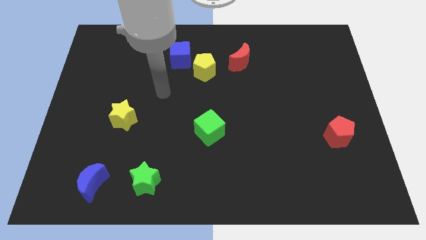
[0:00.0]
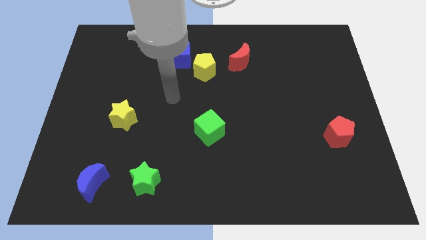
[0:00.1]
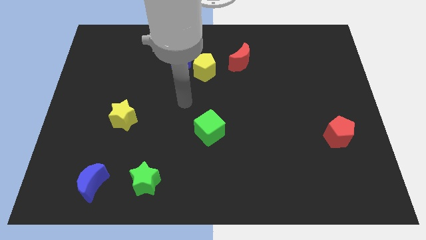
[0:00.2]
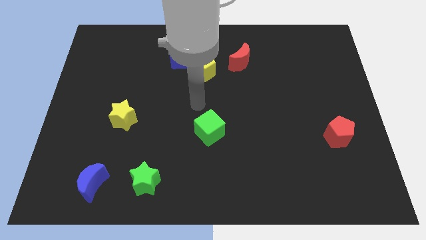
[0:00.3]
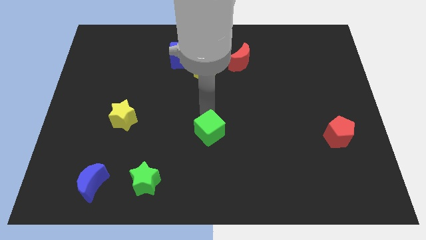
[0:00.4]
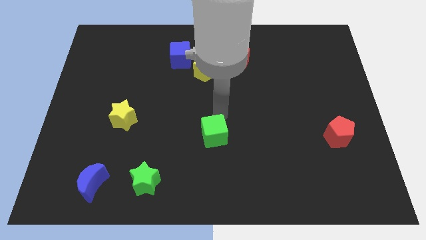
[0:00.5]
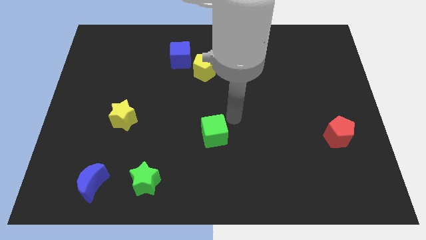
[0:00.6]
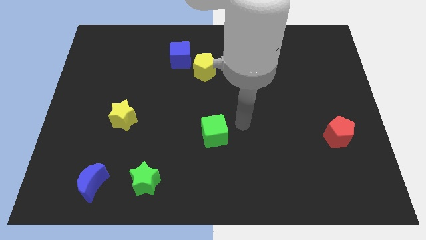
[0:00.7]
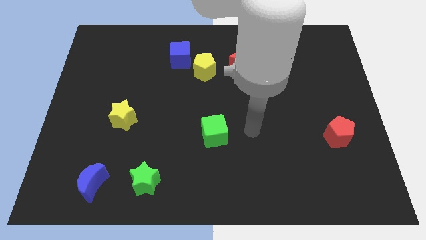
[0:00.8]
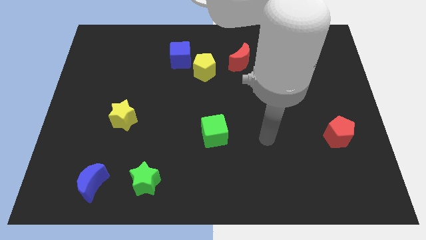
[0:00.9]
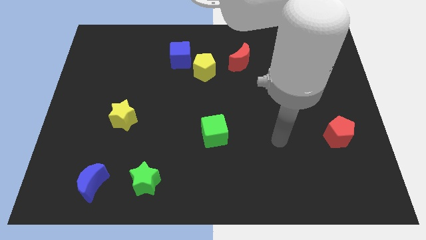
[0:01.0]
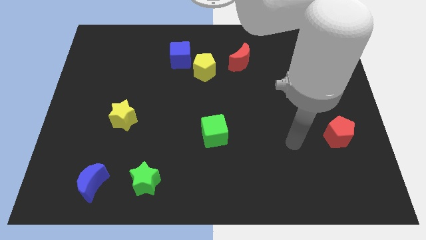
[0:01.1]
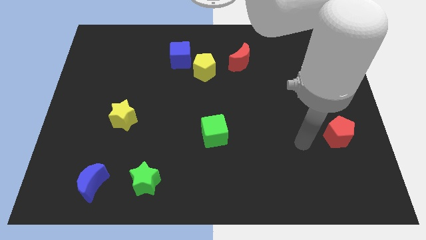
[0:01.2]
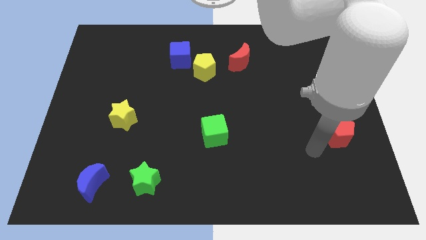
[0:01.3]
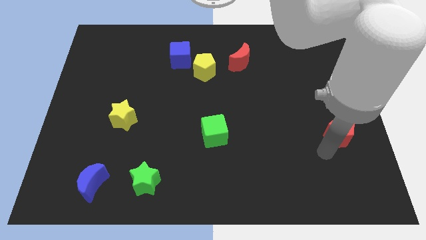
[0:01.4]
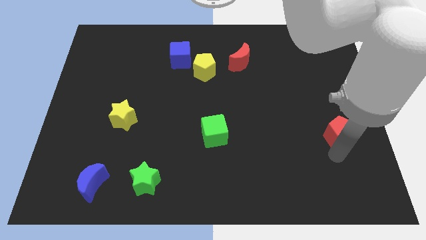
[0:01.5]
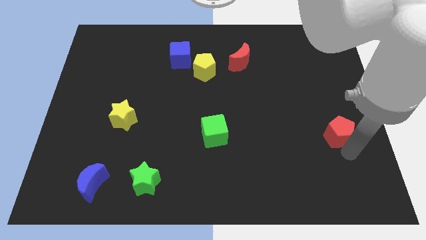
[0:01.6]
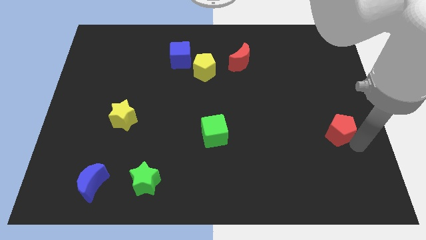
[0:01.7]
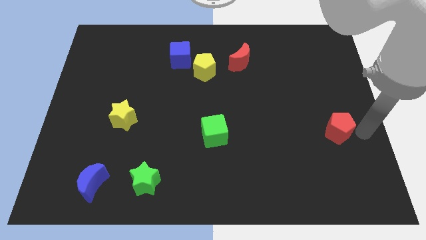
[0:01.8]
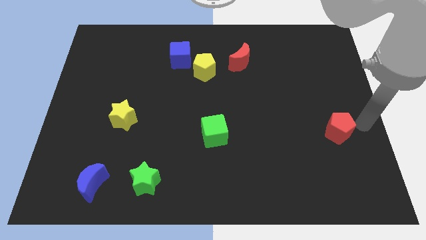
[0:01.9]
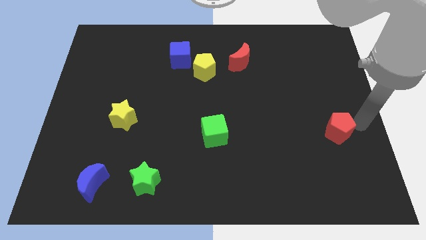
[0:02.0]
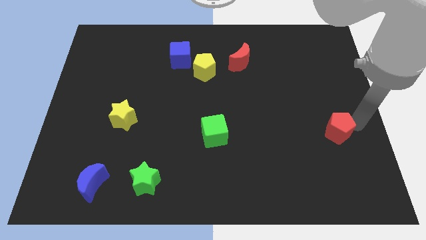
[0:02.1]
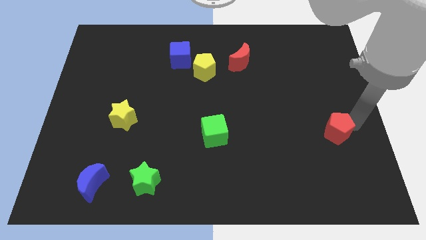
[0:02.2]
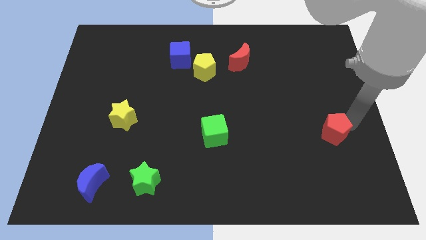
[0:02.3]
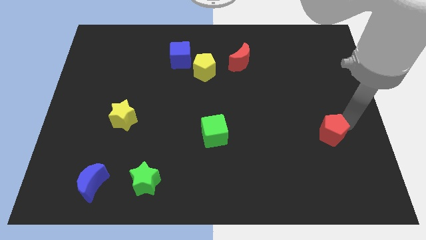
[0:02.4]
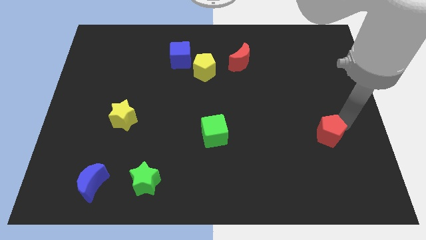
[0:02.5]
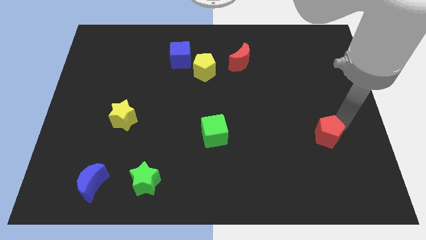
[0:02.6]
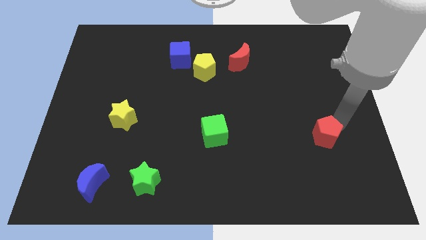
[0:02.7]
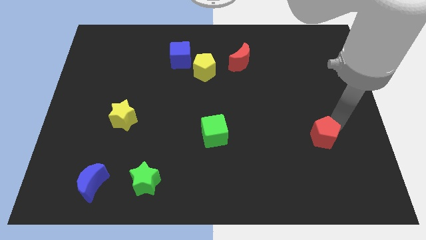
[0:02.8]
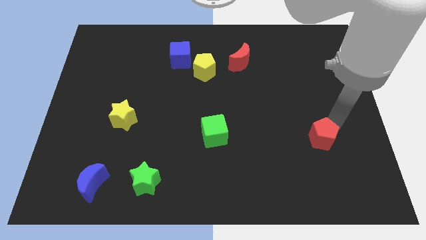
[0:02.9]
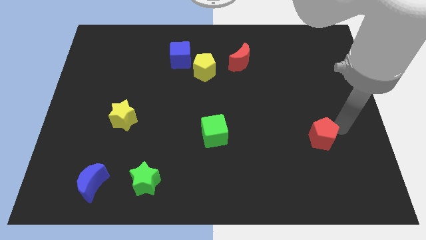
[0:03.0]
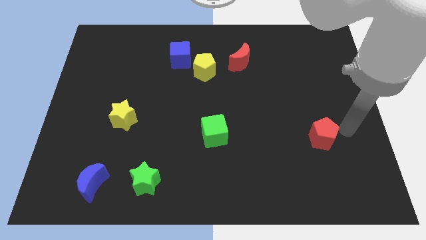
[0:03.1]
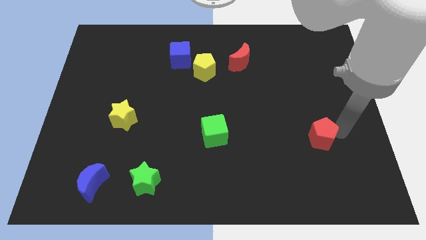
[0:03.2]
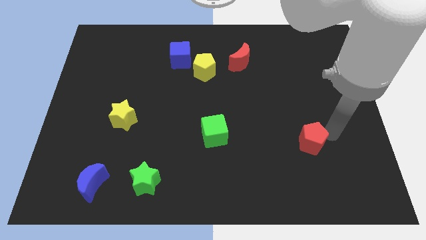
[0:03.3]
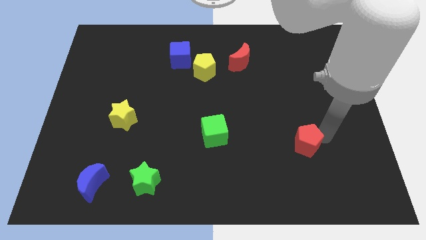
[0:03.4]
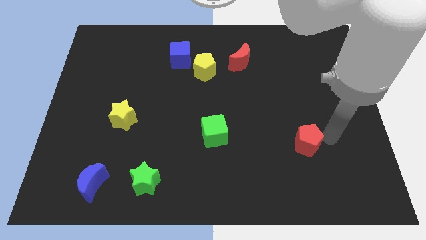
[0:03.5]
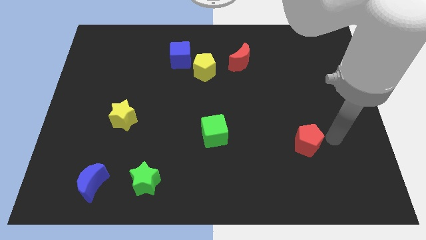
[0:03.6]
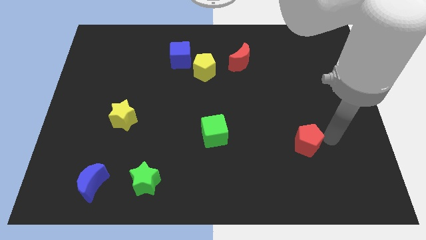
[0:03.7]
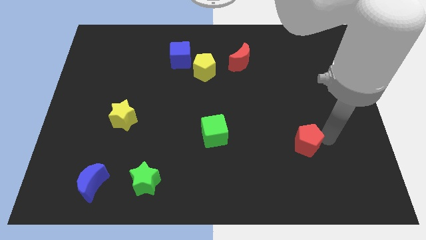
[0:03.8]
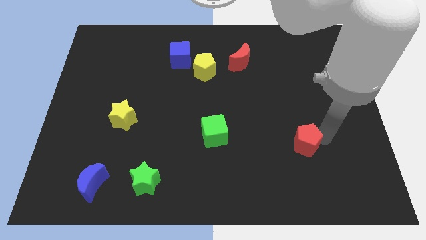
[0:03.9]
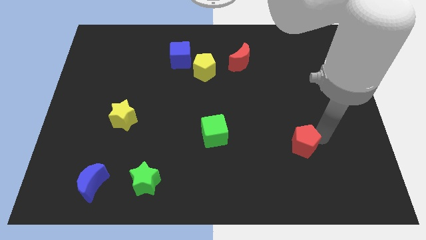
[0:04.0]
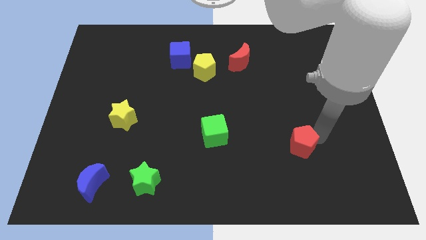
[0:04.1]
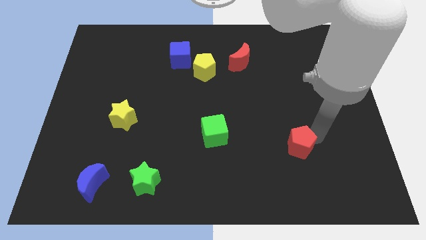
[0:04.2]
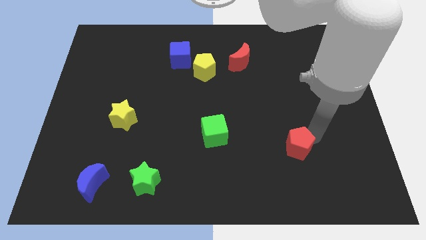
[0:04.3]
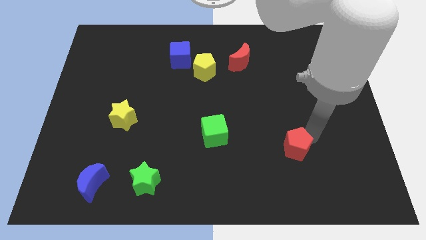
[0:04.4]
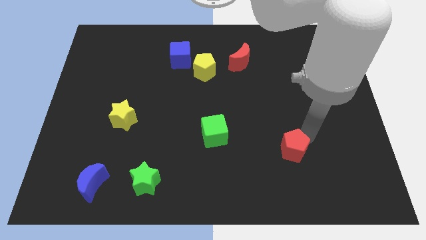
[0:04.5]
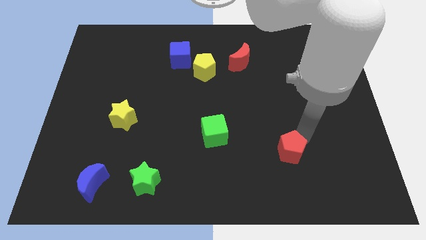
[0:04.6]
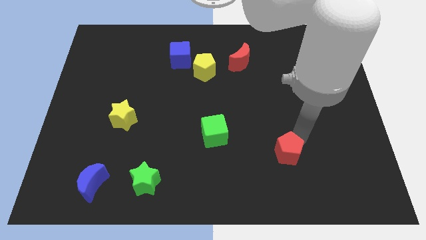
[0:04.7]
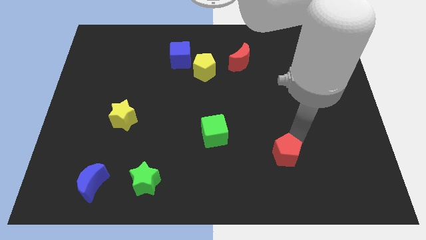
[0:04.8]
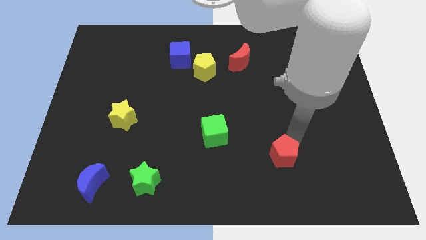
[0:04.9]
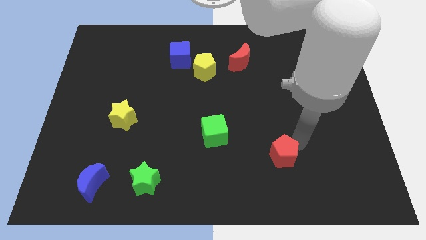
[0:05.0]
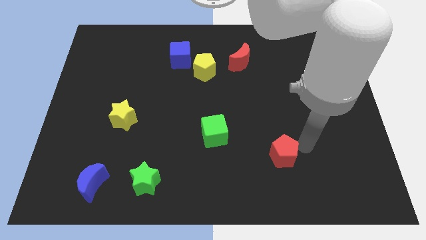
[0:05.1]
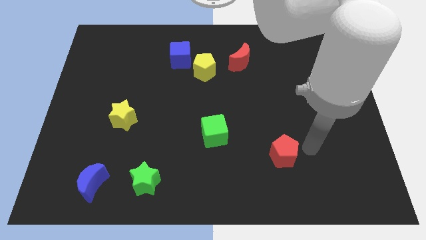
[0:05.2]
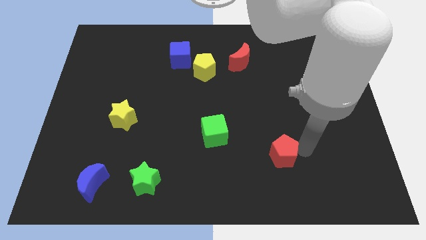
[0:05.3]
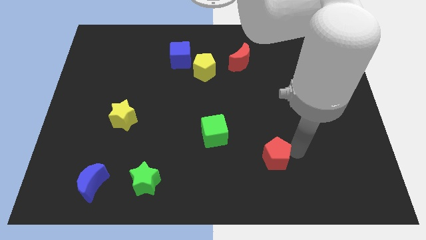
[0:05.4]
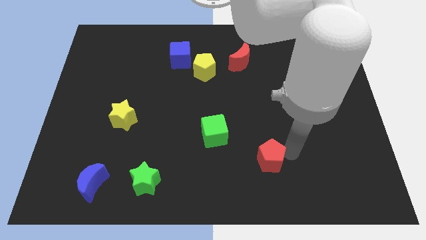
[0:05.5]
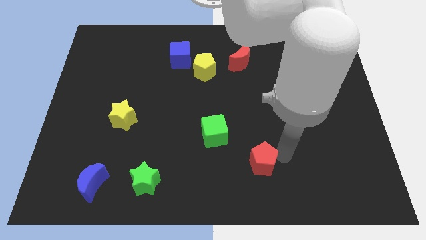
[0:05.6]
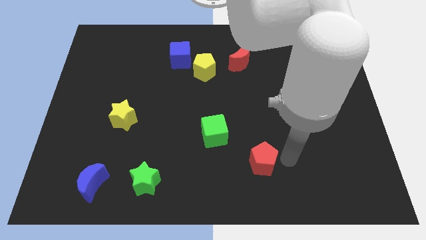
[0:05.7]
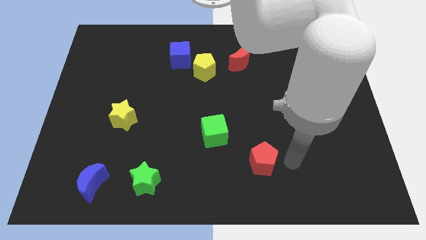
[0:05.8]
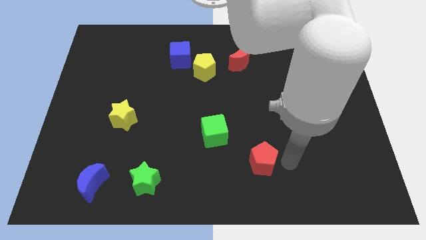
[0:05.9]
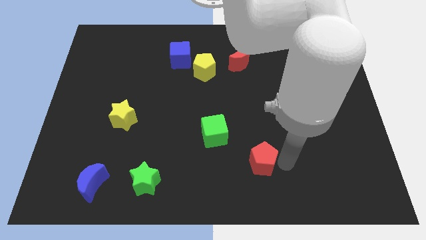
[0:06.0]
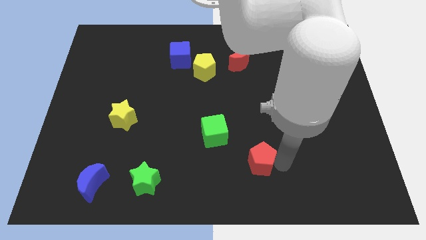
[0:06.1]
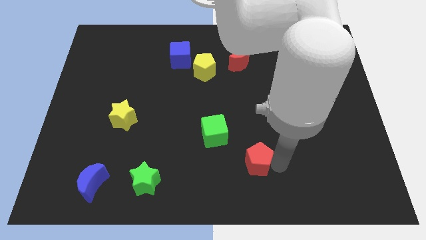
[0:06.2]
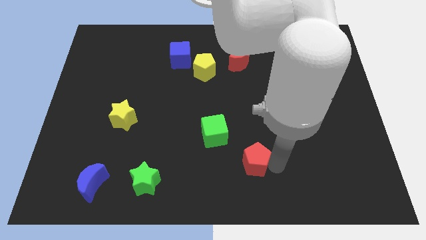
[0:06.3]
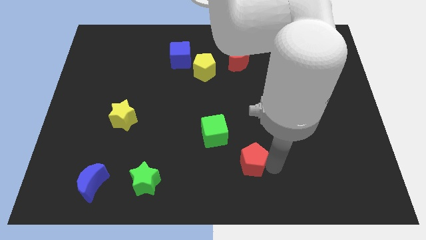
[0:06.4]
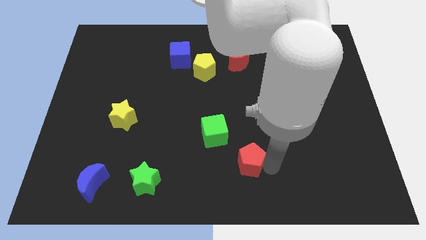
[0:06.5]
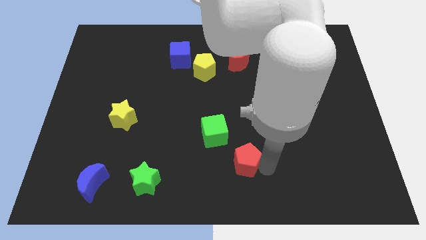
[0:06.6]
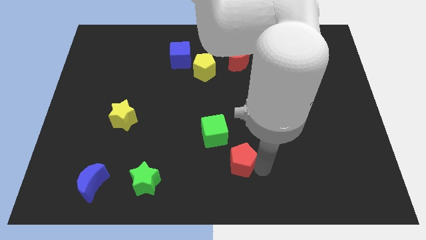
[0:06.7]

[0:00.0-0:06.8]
move the red pentagon left

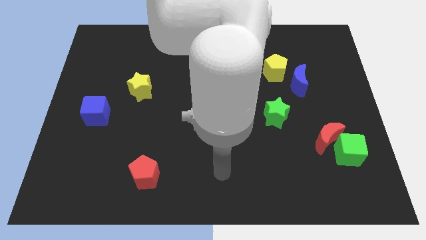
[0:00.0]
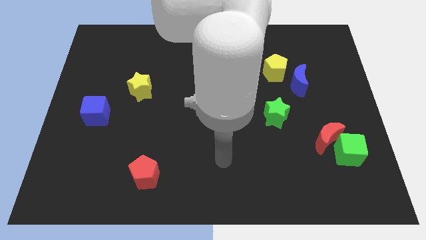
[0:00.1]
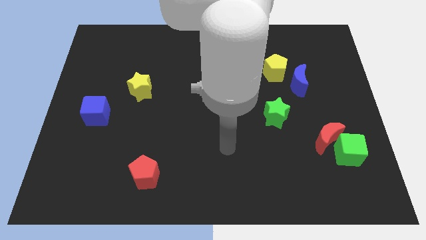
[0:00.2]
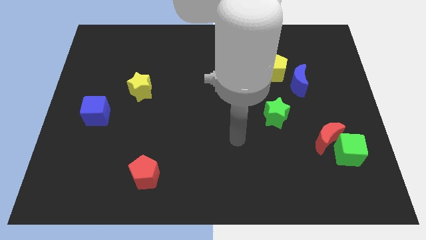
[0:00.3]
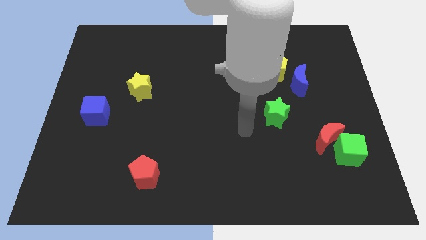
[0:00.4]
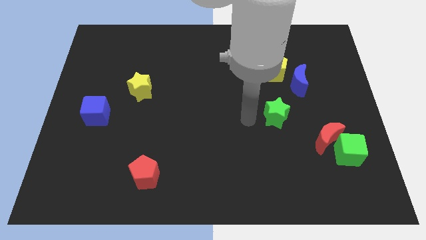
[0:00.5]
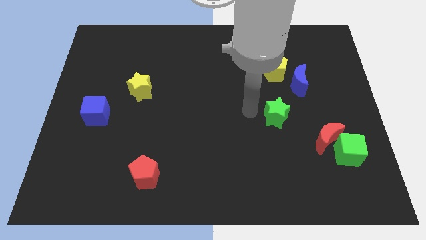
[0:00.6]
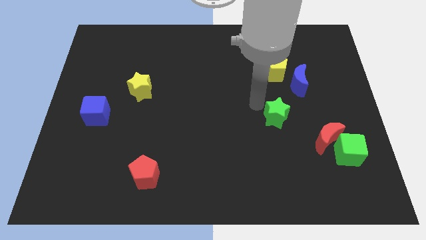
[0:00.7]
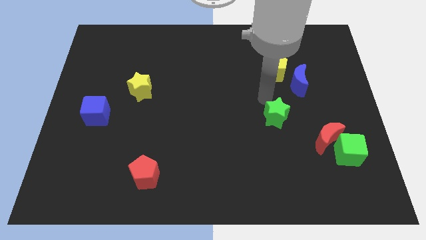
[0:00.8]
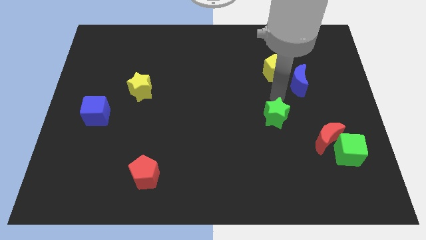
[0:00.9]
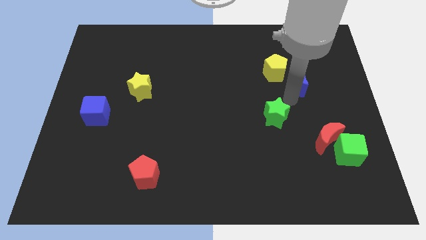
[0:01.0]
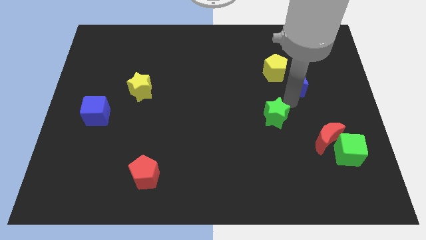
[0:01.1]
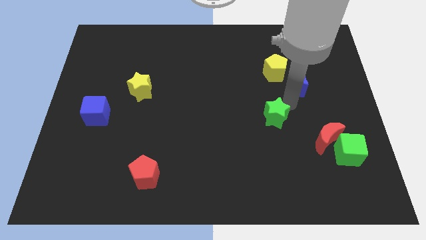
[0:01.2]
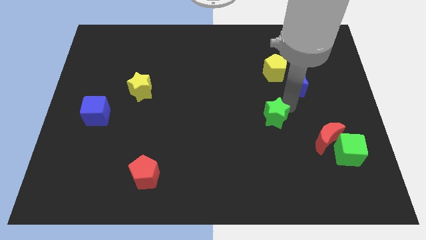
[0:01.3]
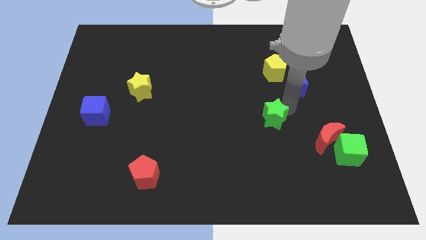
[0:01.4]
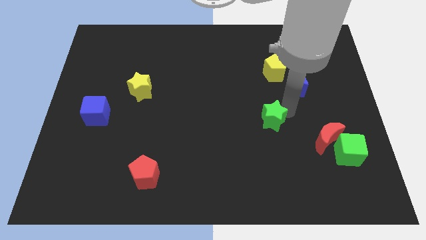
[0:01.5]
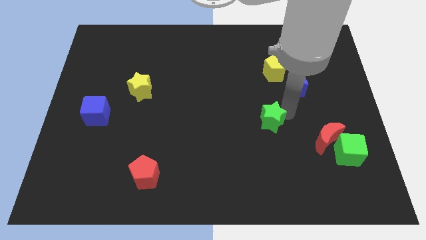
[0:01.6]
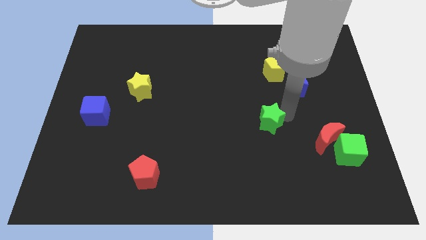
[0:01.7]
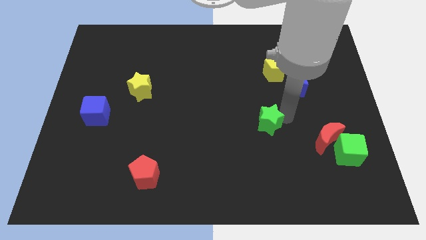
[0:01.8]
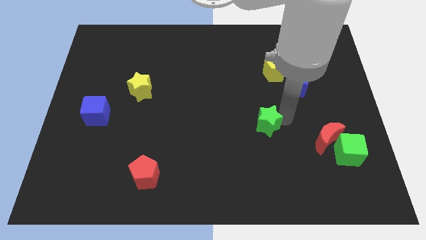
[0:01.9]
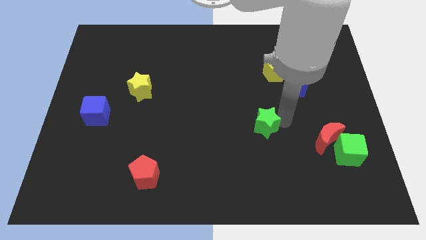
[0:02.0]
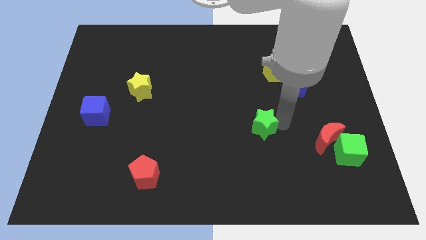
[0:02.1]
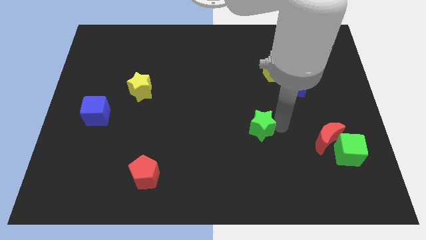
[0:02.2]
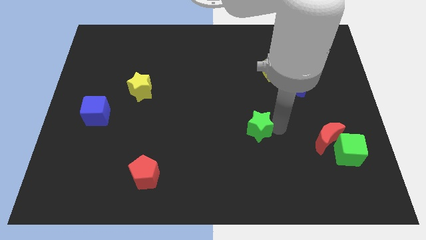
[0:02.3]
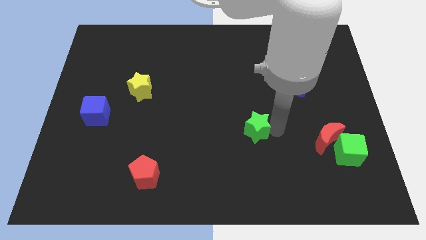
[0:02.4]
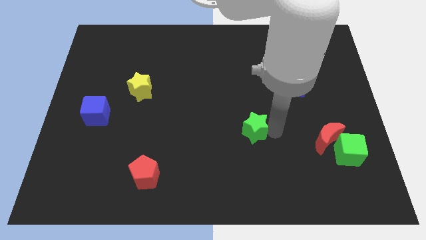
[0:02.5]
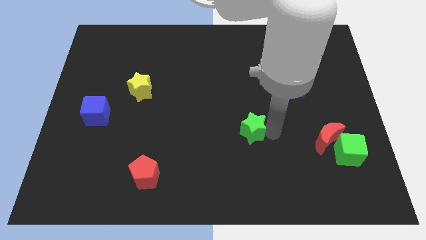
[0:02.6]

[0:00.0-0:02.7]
push the green star down and then to the left a little
